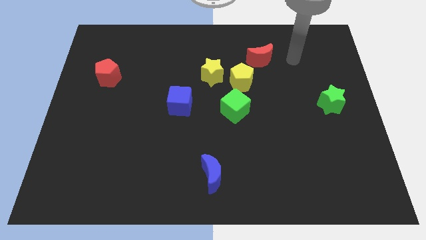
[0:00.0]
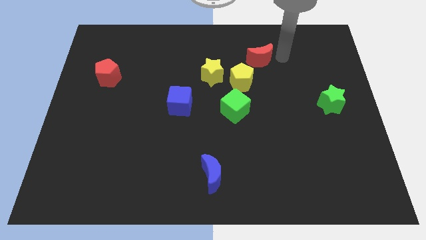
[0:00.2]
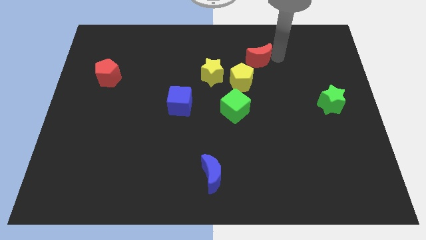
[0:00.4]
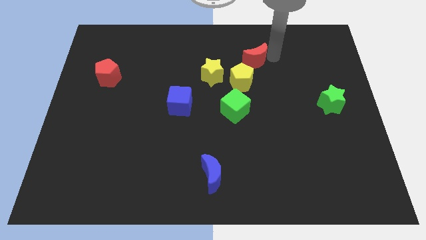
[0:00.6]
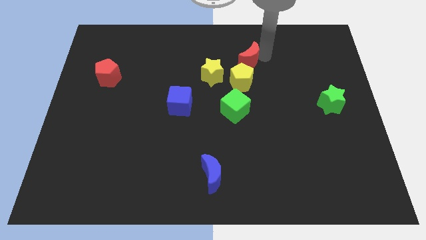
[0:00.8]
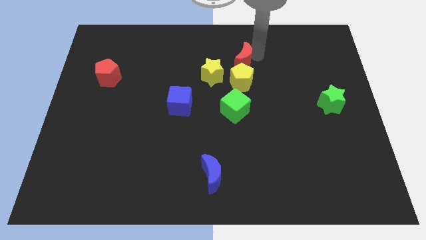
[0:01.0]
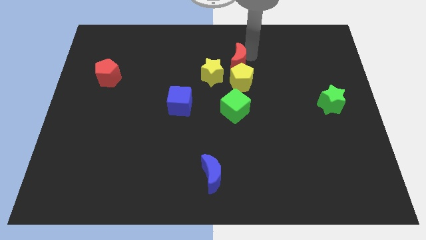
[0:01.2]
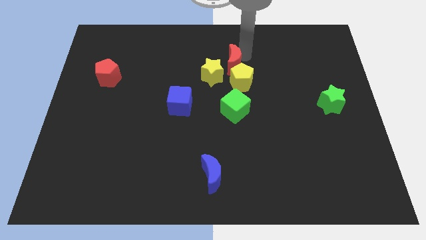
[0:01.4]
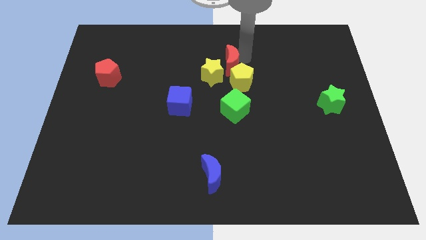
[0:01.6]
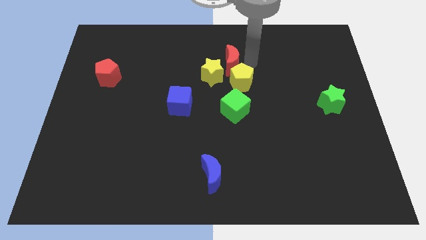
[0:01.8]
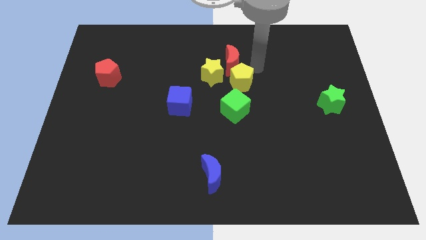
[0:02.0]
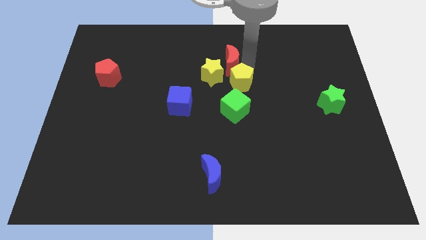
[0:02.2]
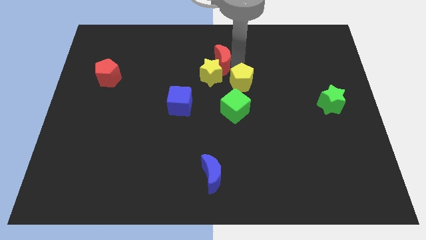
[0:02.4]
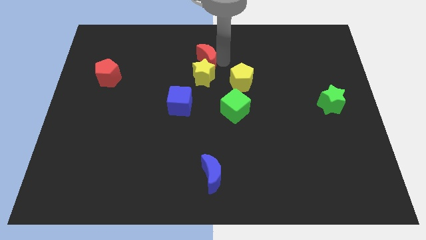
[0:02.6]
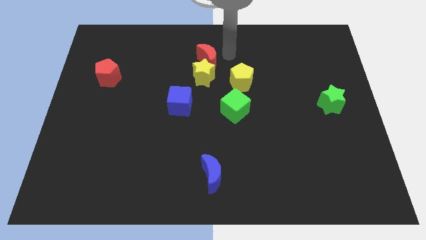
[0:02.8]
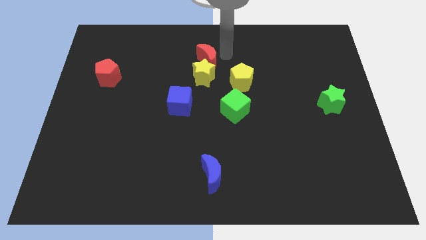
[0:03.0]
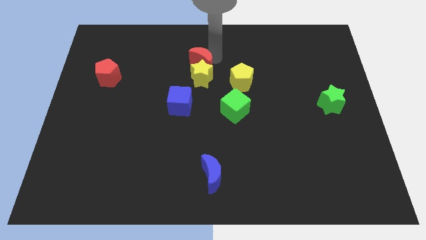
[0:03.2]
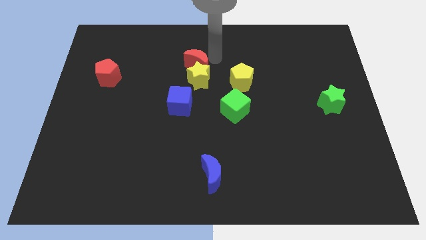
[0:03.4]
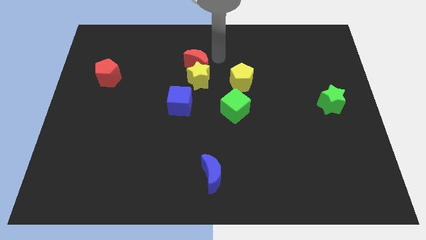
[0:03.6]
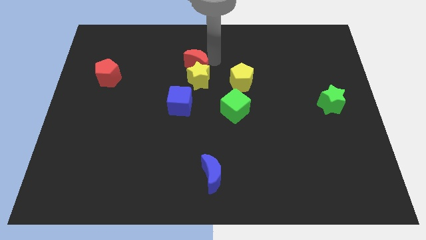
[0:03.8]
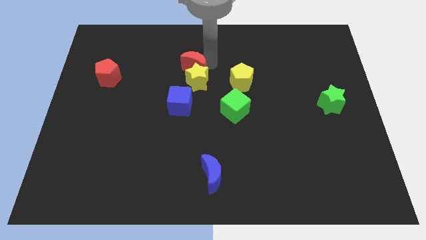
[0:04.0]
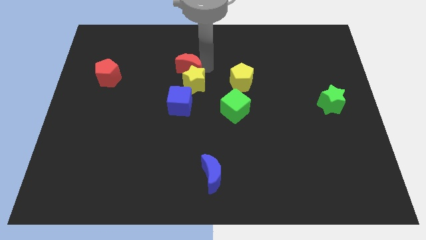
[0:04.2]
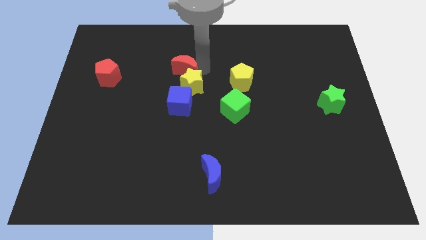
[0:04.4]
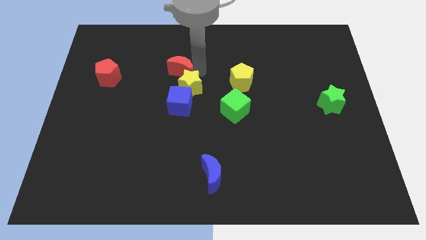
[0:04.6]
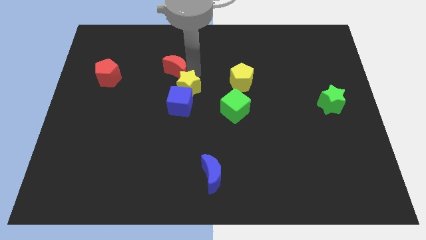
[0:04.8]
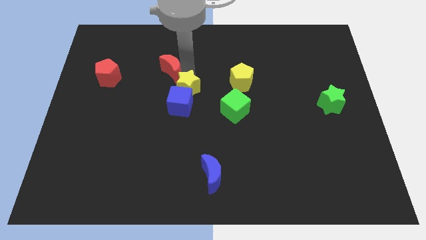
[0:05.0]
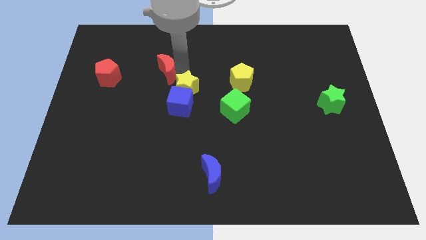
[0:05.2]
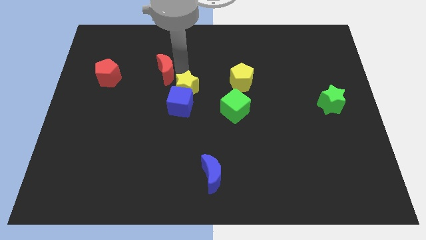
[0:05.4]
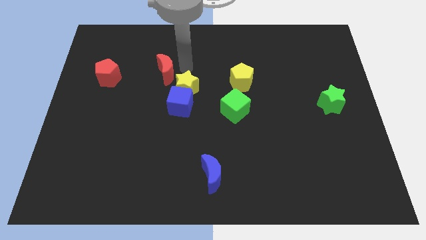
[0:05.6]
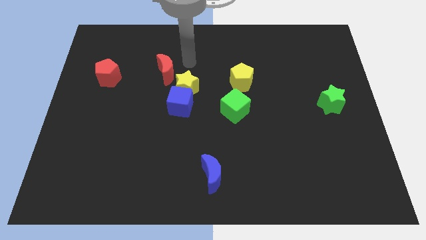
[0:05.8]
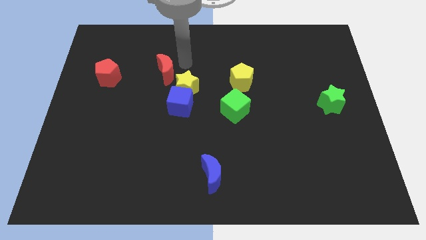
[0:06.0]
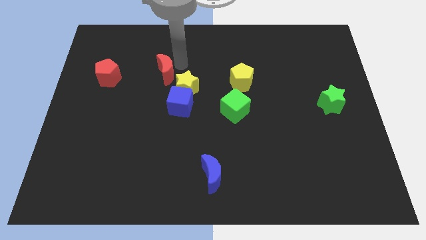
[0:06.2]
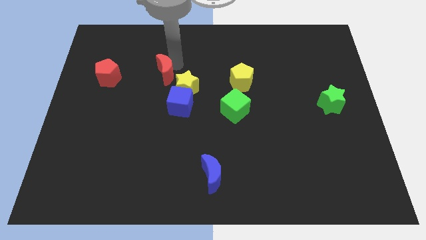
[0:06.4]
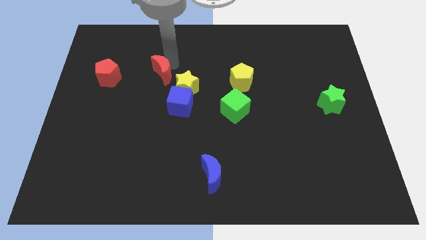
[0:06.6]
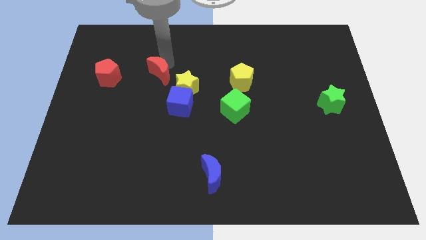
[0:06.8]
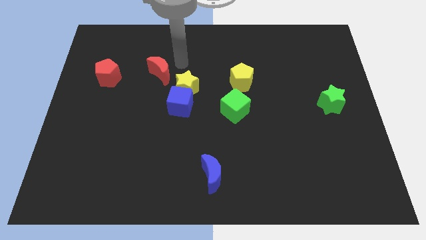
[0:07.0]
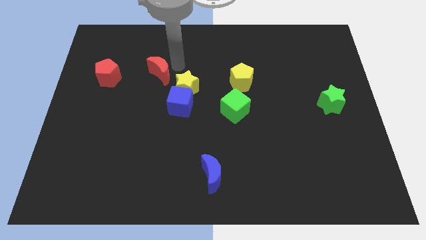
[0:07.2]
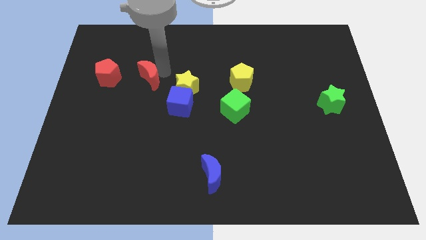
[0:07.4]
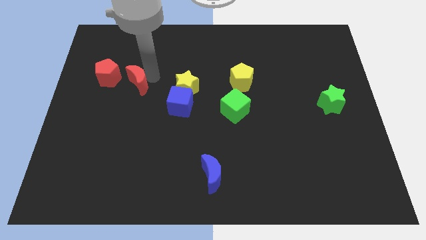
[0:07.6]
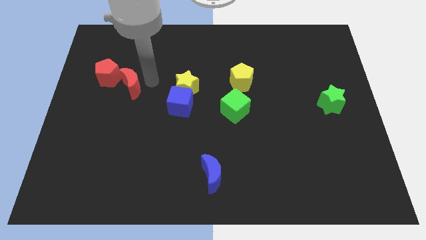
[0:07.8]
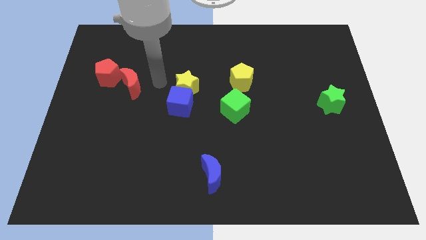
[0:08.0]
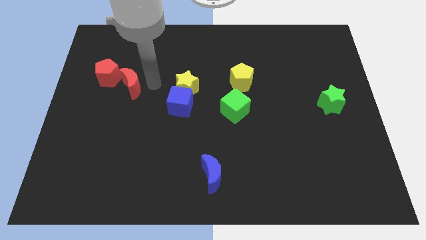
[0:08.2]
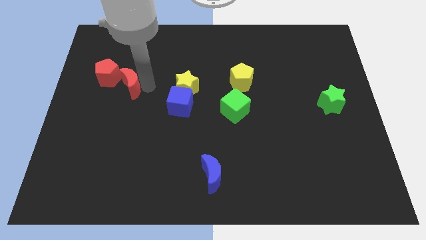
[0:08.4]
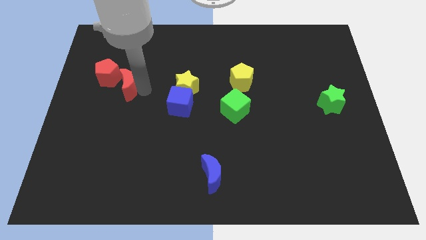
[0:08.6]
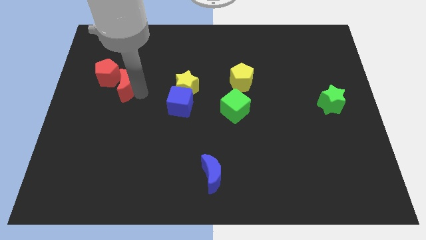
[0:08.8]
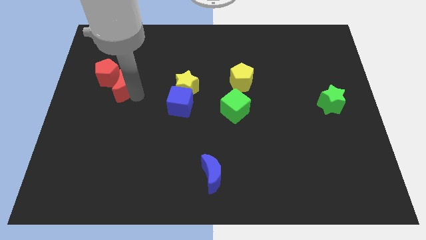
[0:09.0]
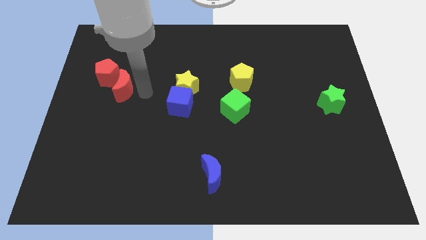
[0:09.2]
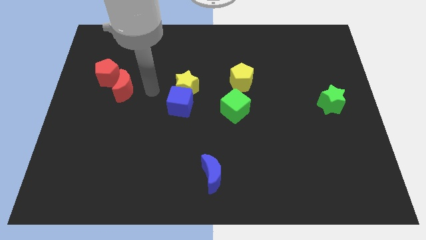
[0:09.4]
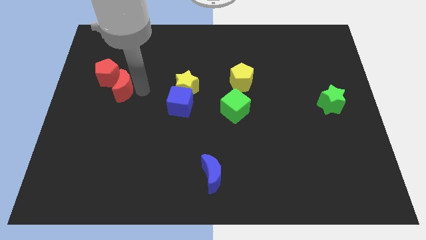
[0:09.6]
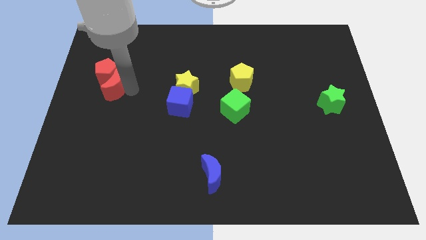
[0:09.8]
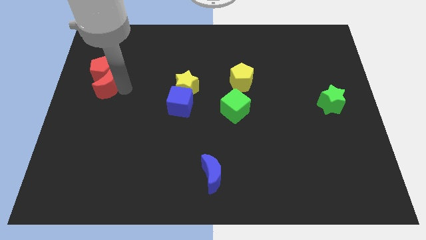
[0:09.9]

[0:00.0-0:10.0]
put the red moon to the center left

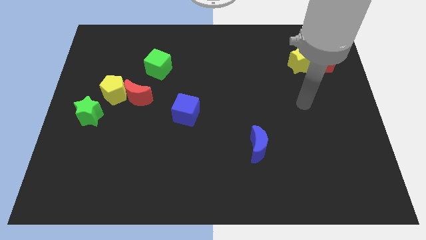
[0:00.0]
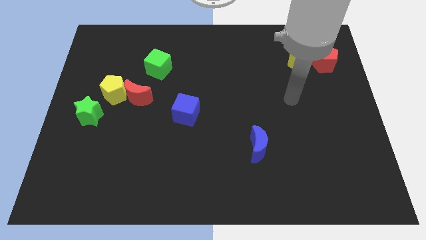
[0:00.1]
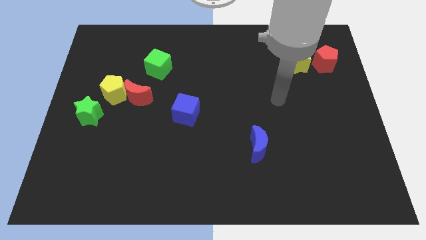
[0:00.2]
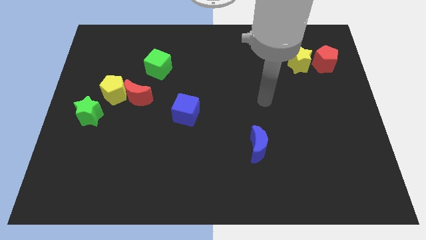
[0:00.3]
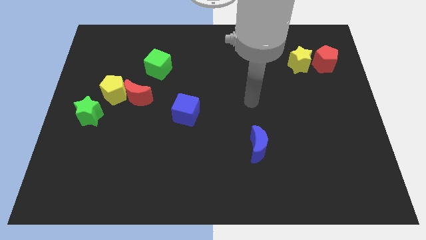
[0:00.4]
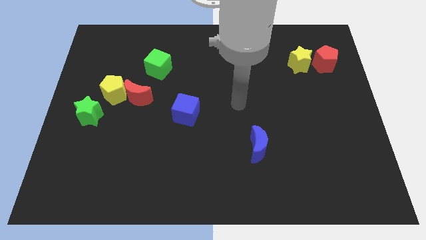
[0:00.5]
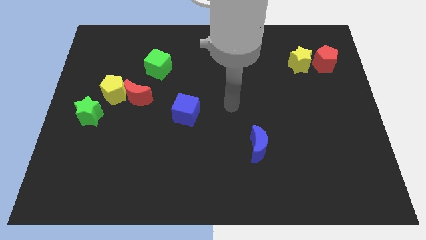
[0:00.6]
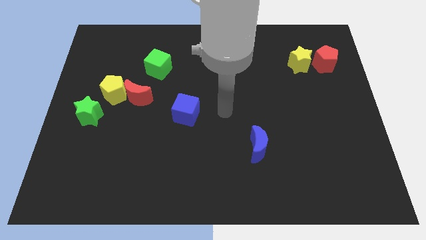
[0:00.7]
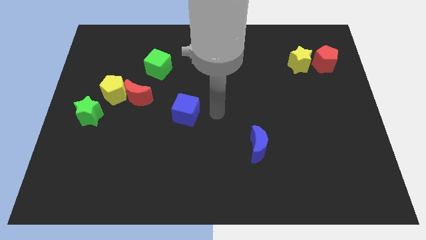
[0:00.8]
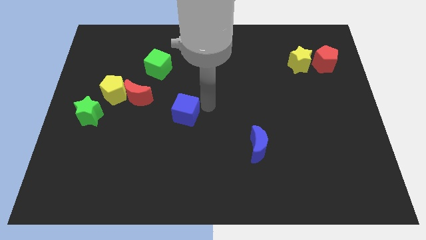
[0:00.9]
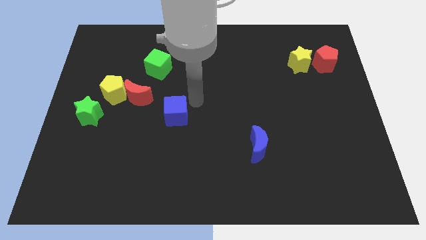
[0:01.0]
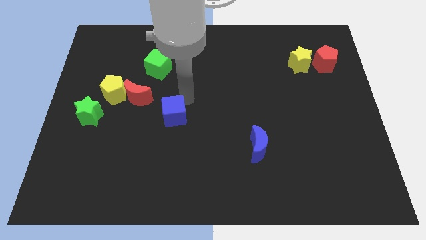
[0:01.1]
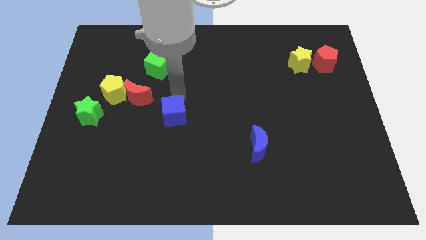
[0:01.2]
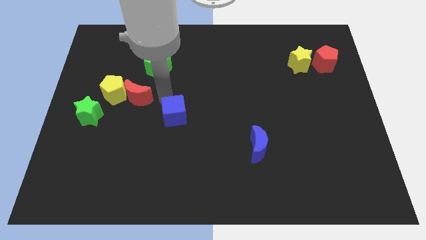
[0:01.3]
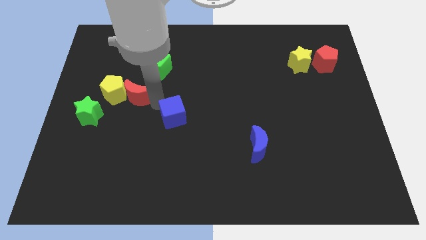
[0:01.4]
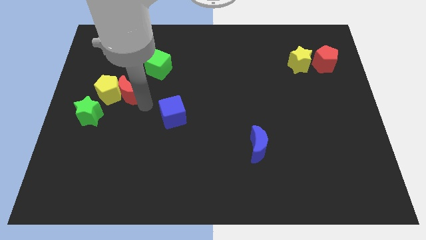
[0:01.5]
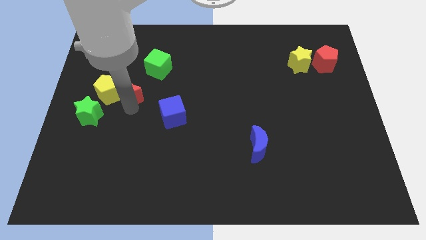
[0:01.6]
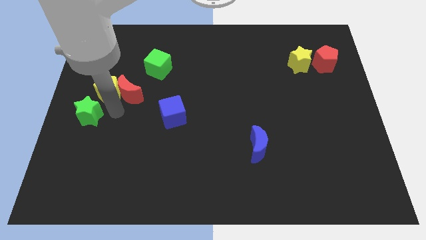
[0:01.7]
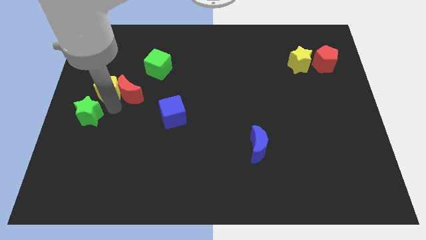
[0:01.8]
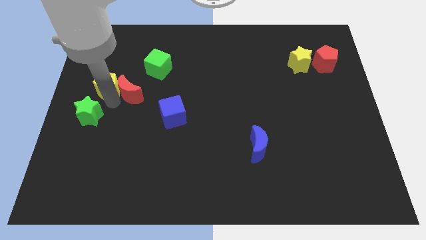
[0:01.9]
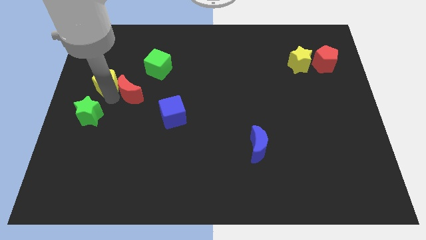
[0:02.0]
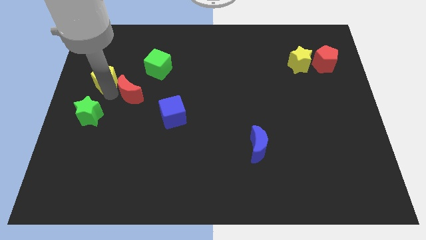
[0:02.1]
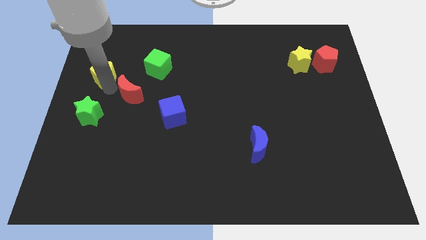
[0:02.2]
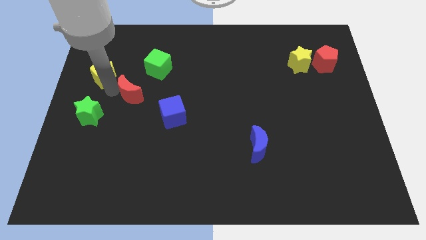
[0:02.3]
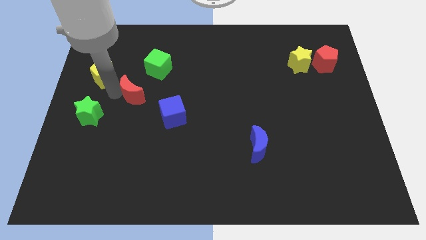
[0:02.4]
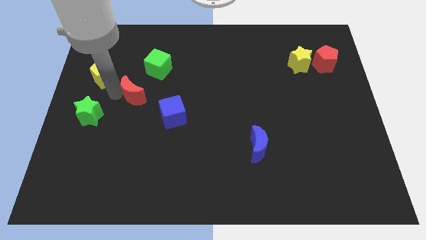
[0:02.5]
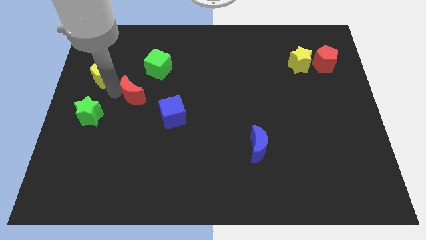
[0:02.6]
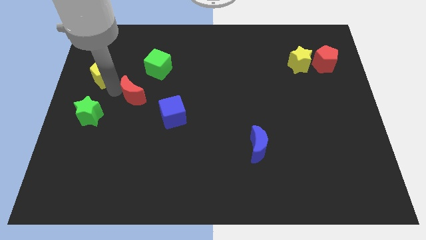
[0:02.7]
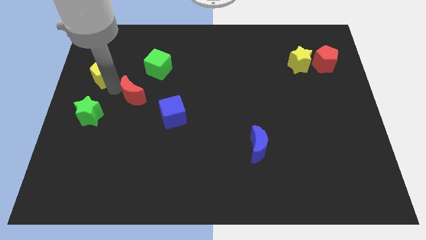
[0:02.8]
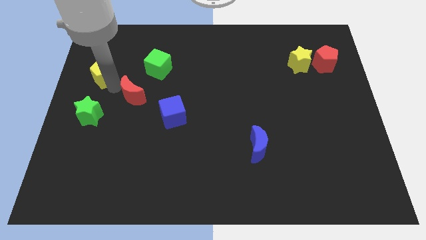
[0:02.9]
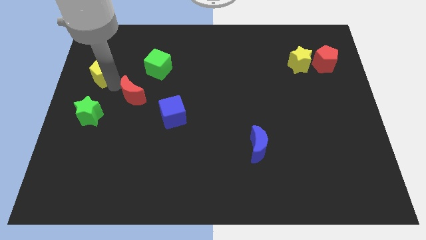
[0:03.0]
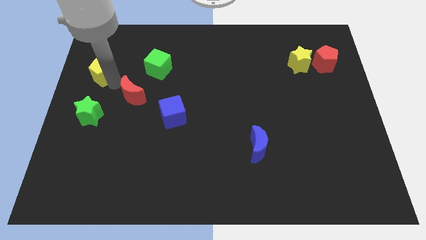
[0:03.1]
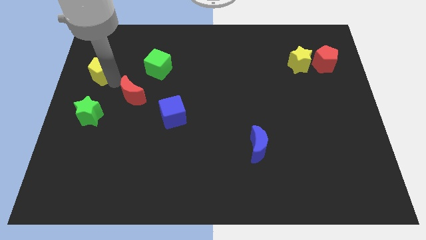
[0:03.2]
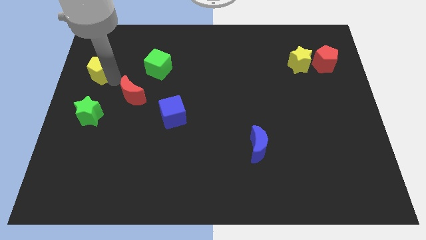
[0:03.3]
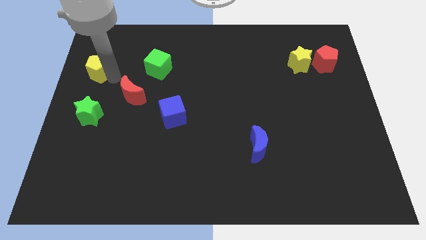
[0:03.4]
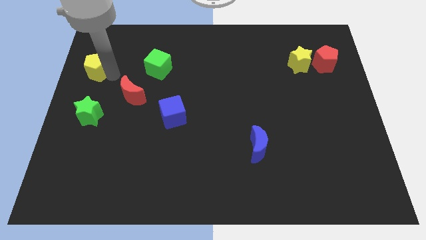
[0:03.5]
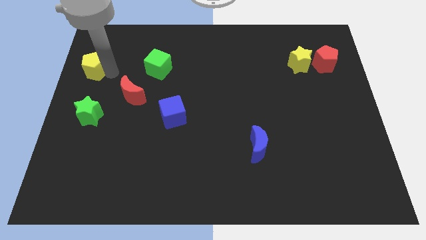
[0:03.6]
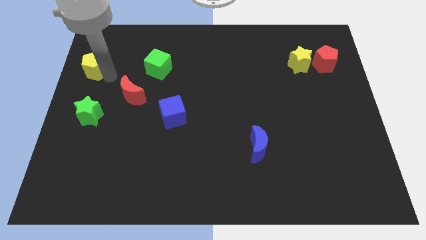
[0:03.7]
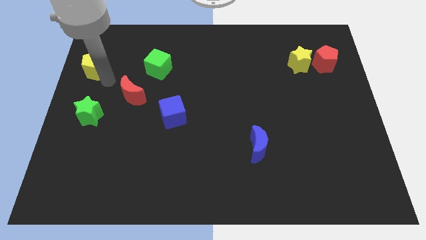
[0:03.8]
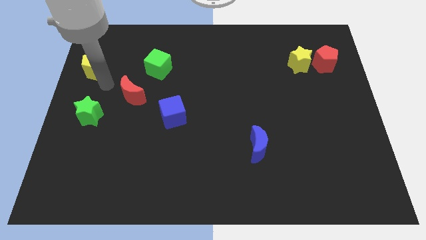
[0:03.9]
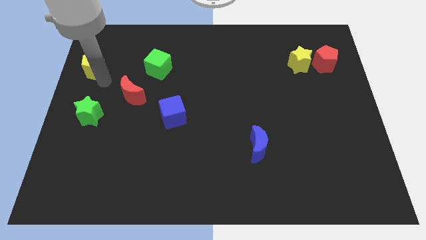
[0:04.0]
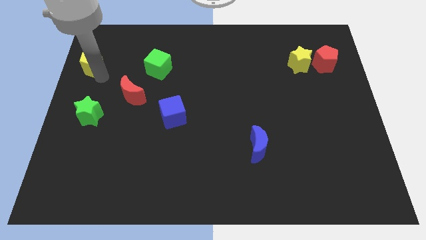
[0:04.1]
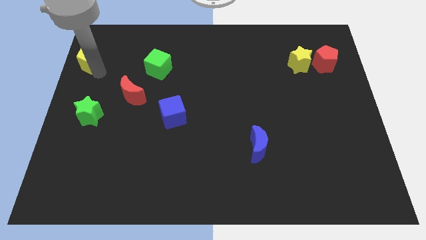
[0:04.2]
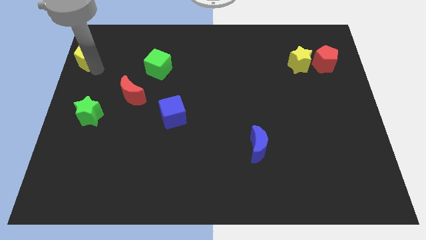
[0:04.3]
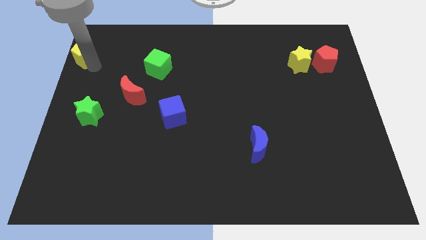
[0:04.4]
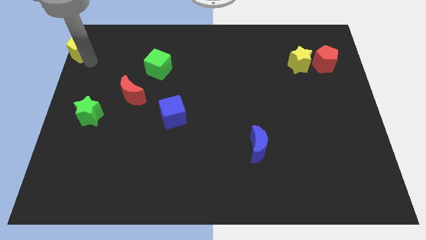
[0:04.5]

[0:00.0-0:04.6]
slide the yellow pentagon to the upper left corner
